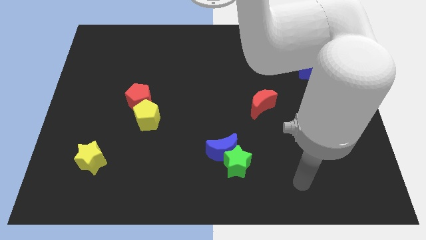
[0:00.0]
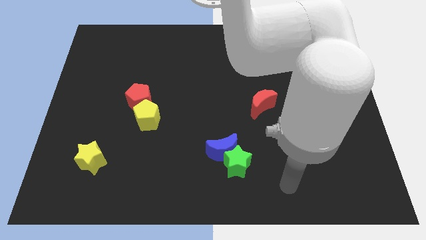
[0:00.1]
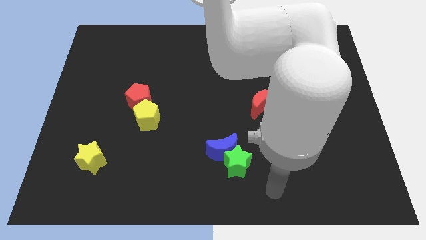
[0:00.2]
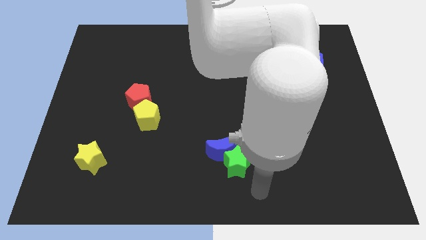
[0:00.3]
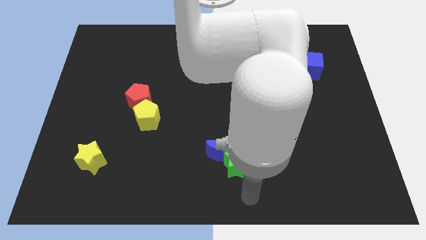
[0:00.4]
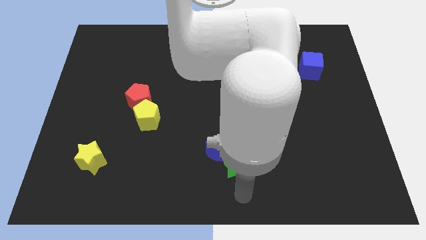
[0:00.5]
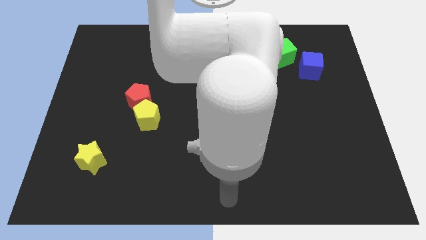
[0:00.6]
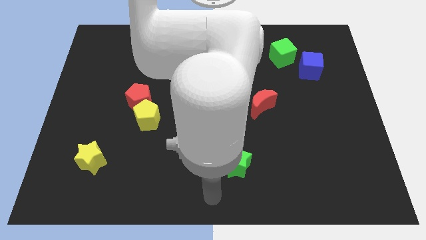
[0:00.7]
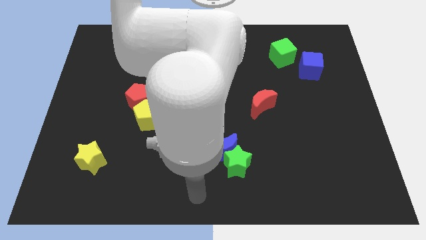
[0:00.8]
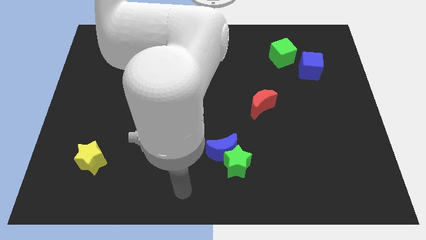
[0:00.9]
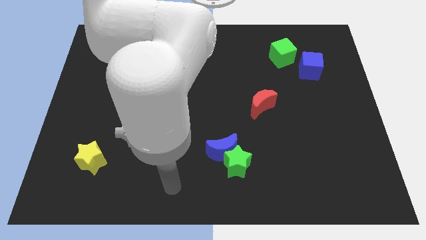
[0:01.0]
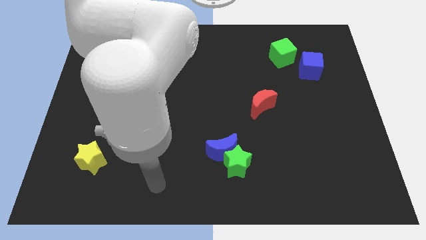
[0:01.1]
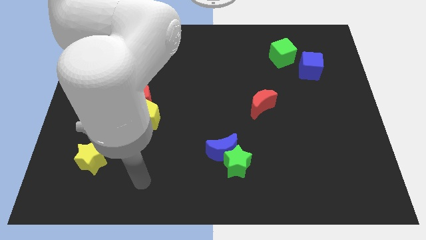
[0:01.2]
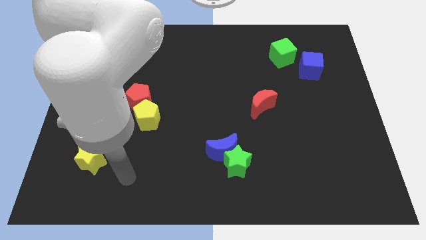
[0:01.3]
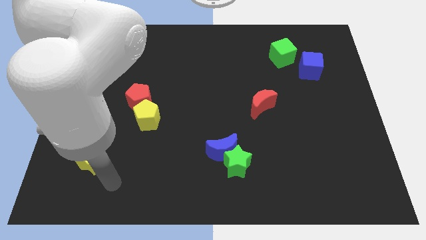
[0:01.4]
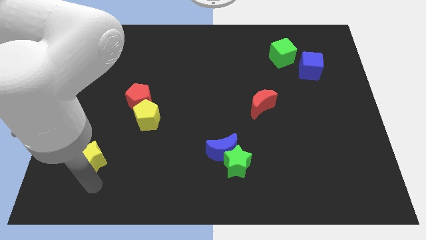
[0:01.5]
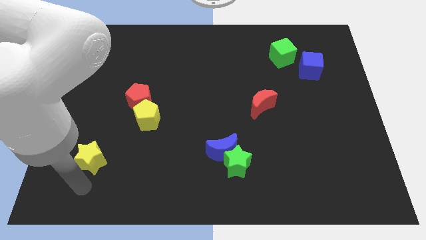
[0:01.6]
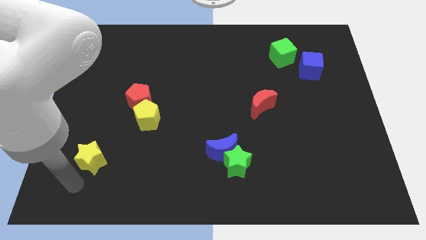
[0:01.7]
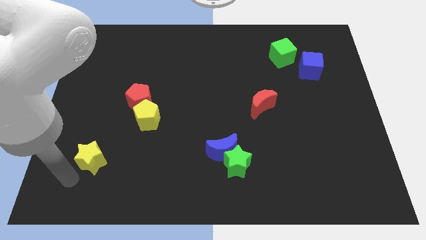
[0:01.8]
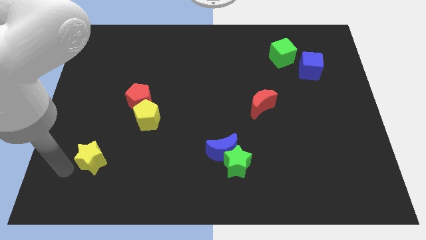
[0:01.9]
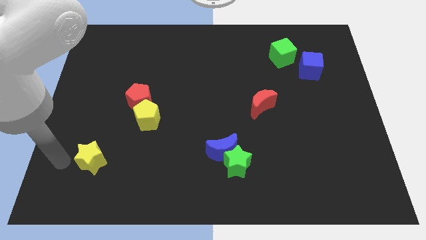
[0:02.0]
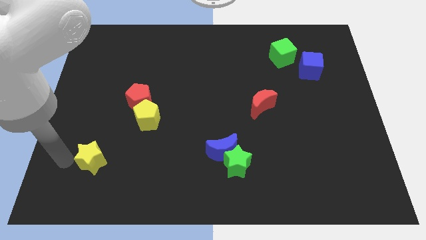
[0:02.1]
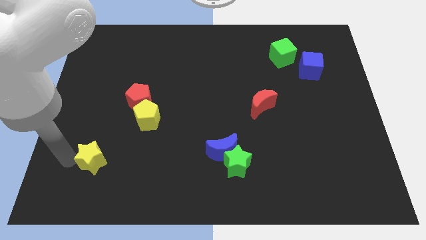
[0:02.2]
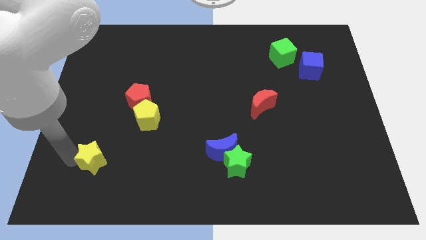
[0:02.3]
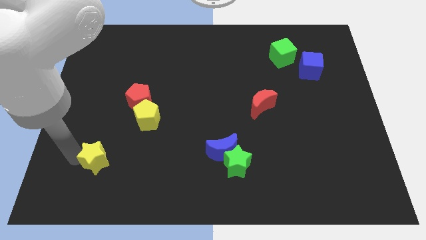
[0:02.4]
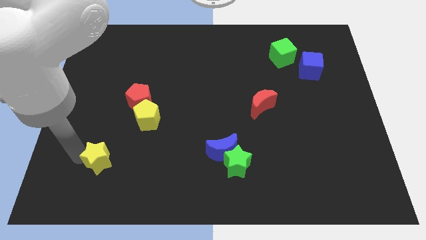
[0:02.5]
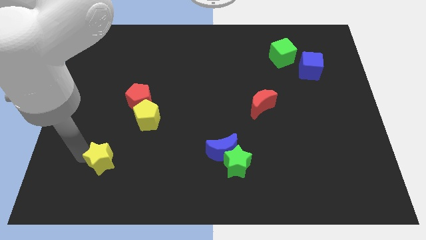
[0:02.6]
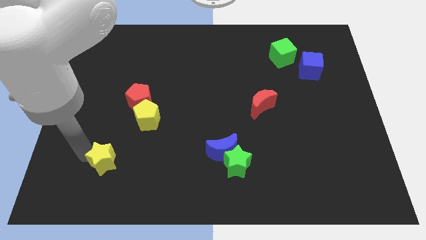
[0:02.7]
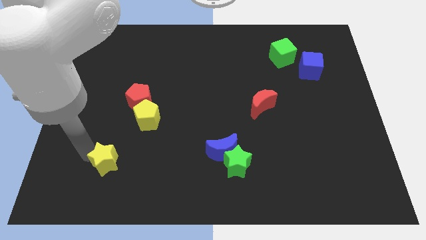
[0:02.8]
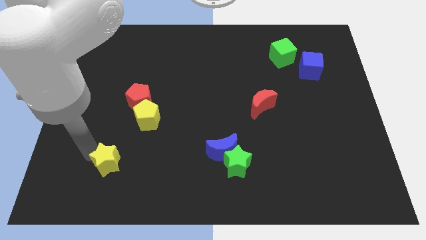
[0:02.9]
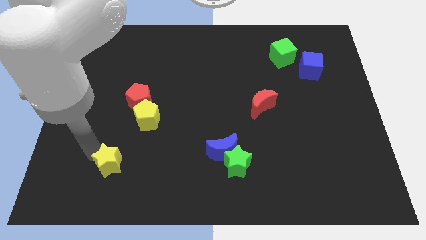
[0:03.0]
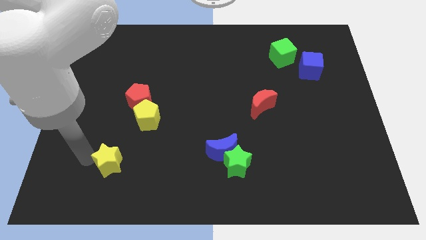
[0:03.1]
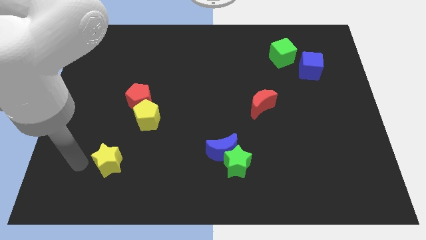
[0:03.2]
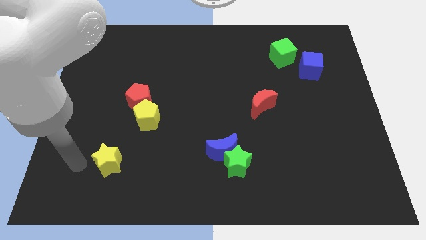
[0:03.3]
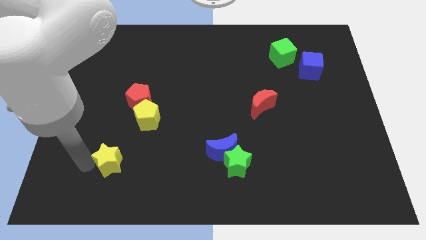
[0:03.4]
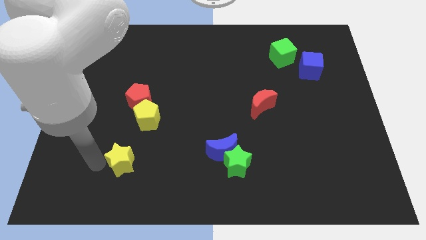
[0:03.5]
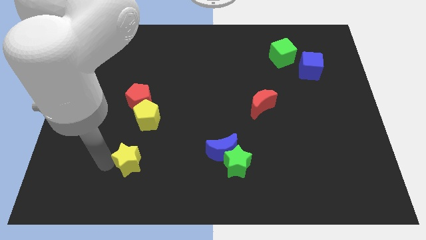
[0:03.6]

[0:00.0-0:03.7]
slightly push the yellow star to the right

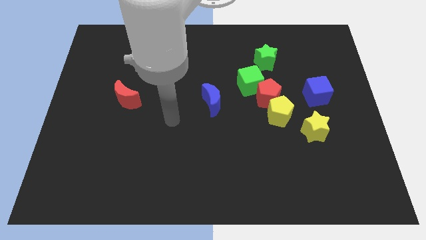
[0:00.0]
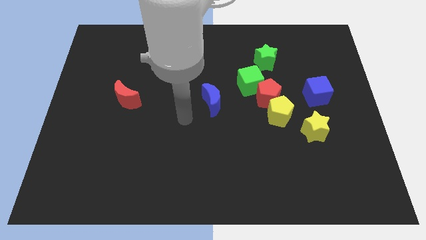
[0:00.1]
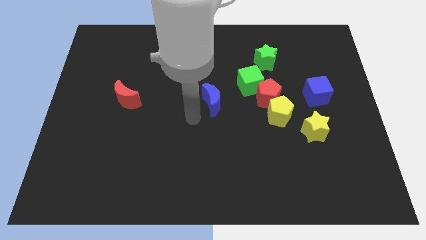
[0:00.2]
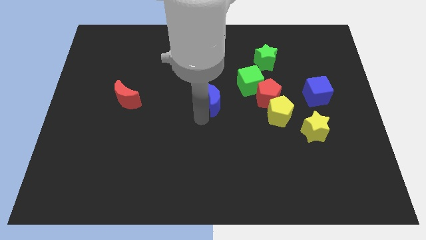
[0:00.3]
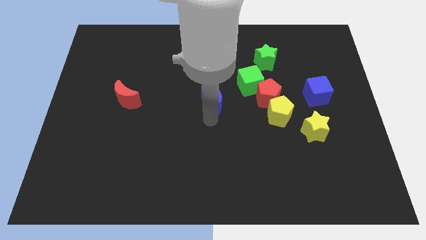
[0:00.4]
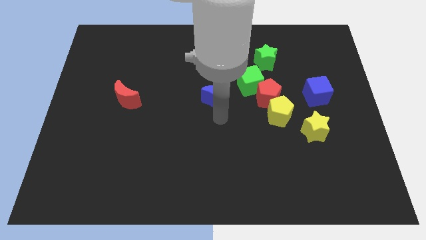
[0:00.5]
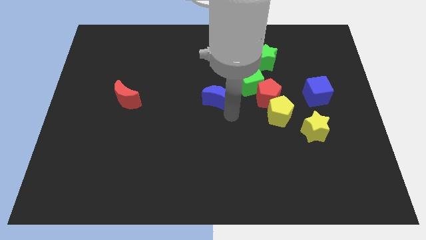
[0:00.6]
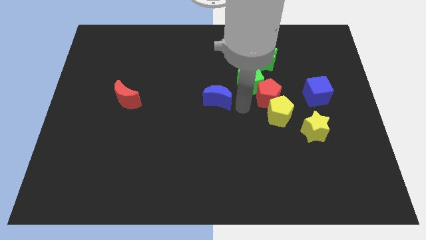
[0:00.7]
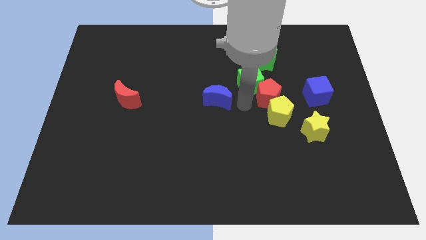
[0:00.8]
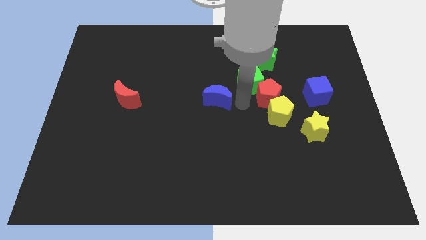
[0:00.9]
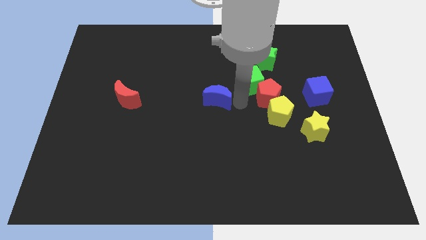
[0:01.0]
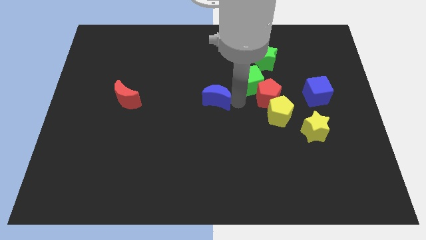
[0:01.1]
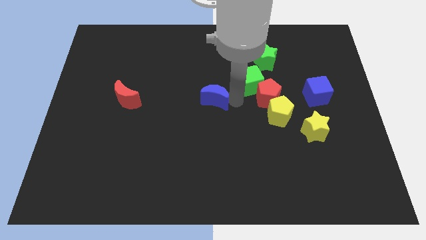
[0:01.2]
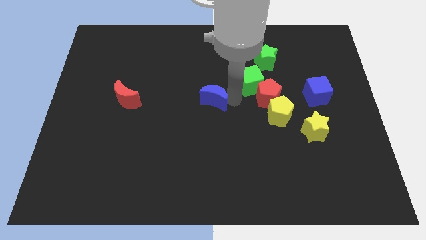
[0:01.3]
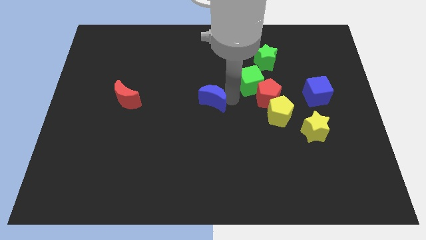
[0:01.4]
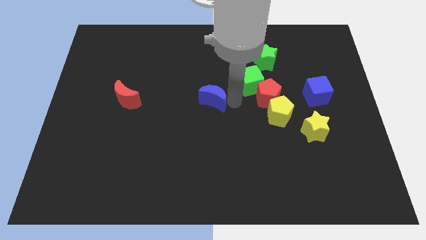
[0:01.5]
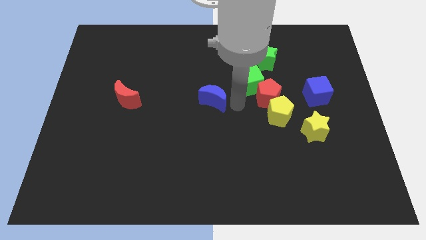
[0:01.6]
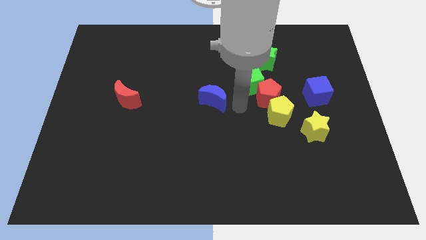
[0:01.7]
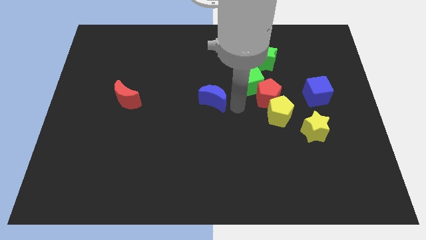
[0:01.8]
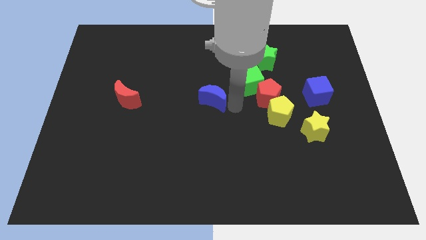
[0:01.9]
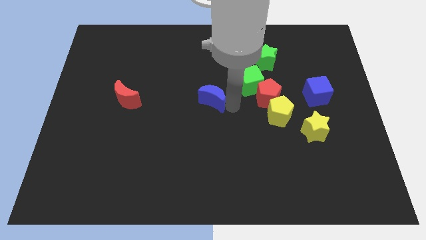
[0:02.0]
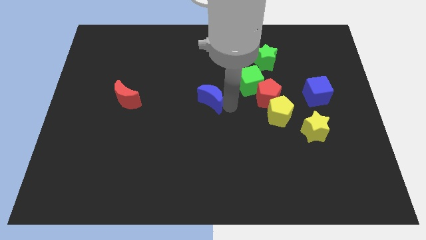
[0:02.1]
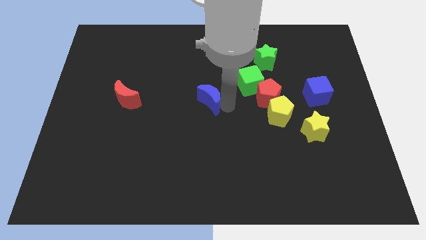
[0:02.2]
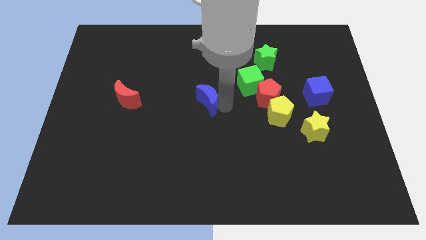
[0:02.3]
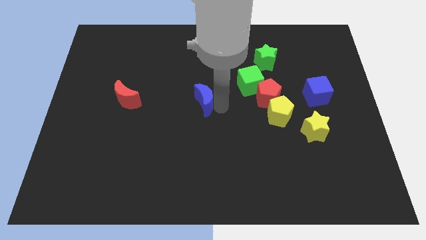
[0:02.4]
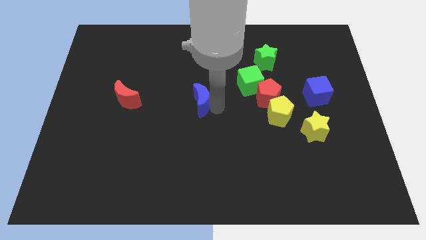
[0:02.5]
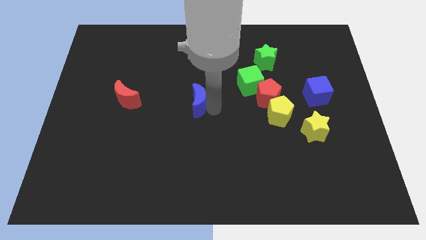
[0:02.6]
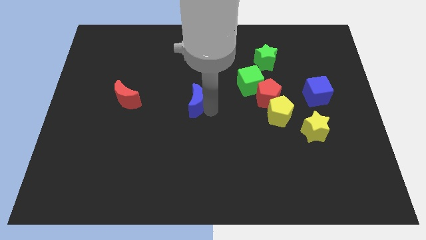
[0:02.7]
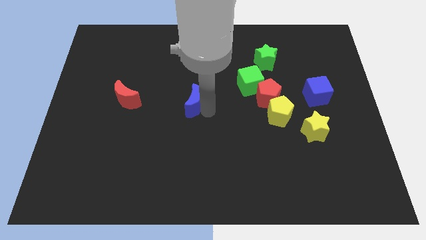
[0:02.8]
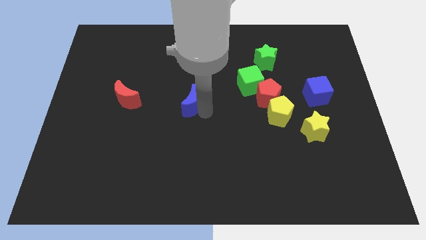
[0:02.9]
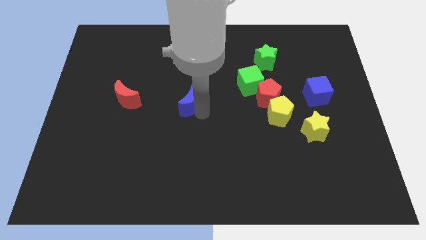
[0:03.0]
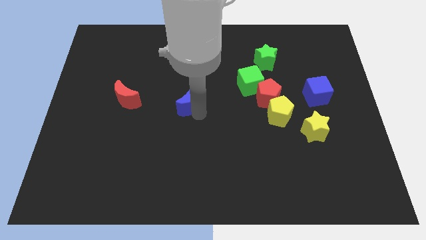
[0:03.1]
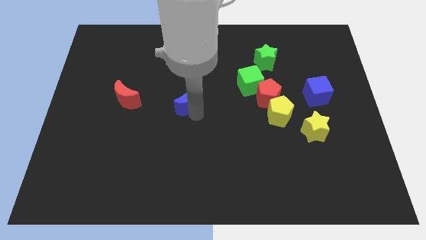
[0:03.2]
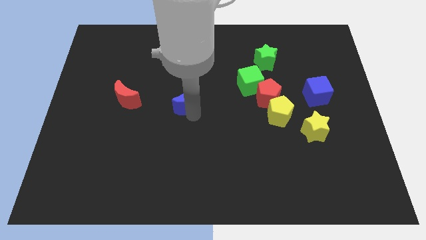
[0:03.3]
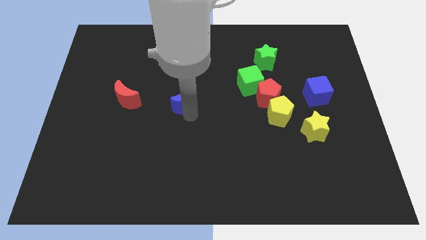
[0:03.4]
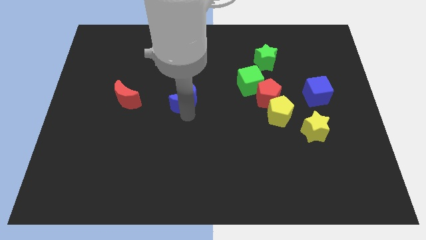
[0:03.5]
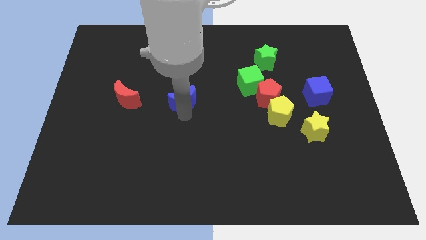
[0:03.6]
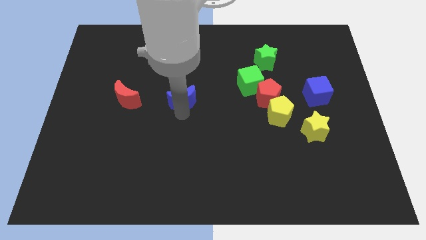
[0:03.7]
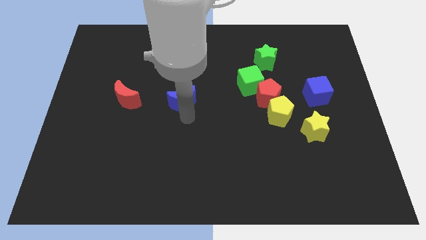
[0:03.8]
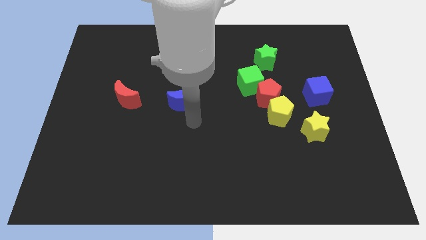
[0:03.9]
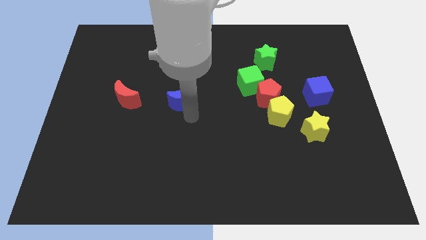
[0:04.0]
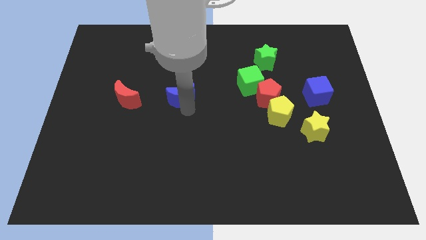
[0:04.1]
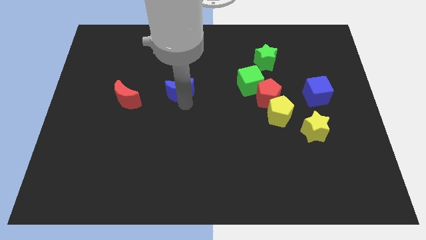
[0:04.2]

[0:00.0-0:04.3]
slightly push the blue moon upwards and left

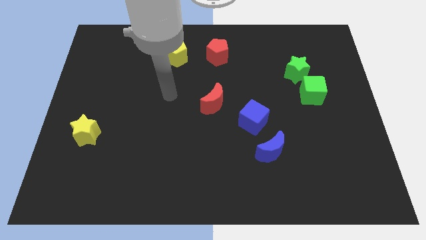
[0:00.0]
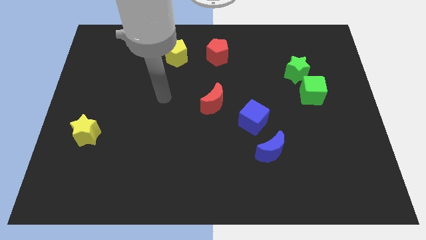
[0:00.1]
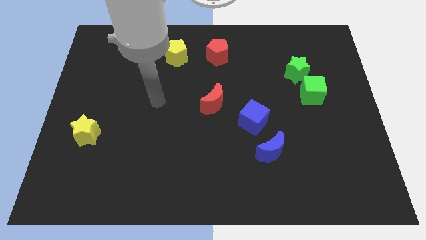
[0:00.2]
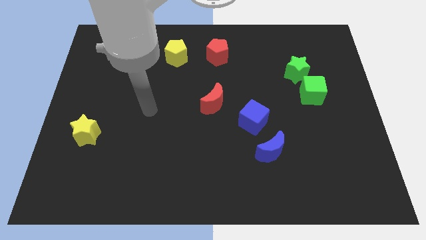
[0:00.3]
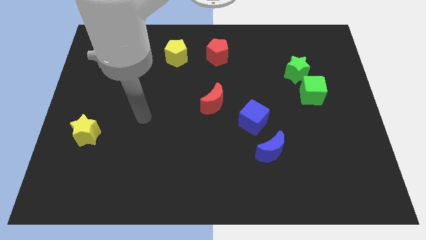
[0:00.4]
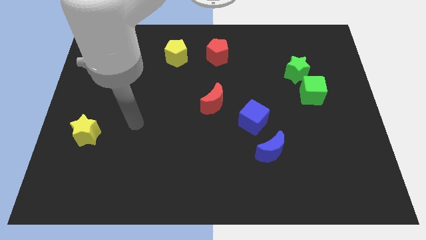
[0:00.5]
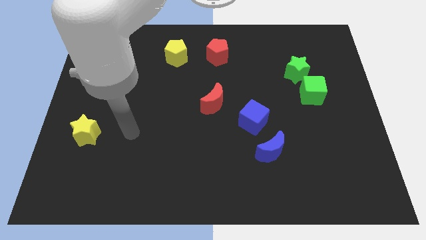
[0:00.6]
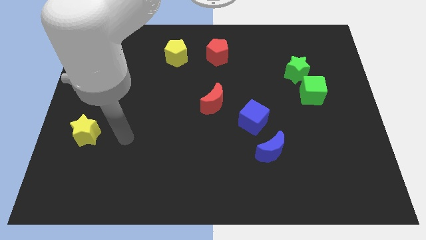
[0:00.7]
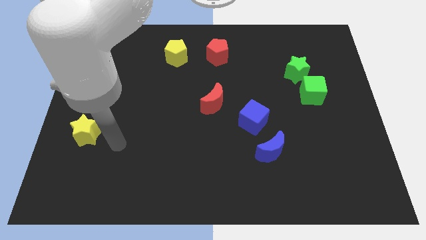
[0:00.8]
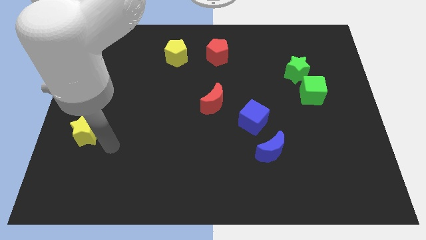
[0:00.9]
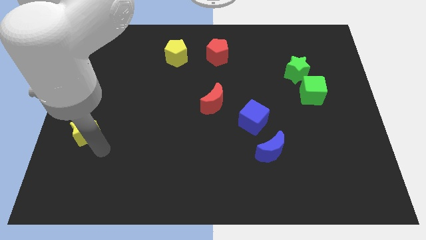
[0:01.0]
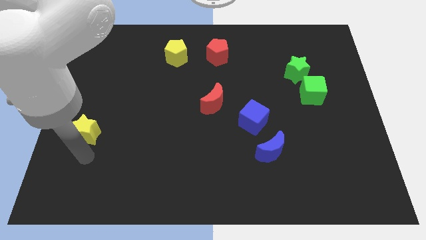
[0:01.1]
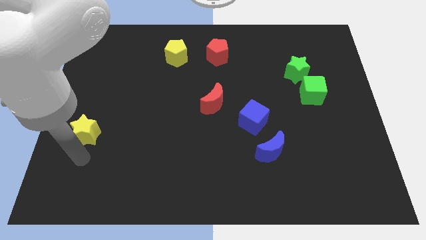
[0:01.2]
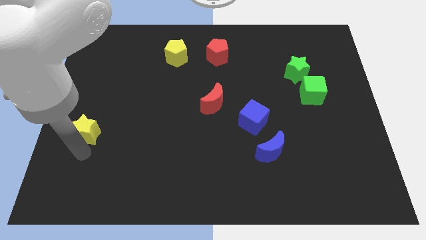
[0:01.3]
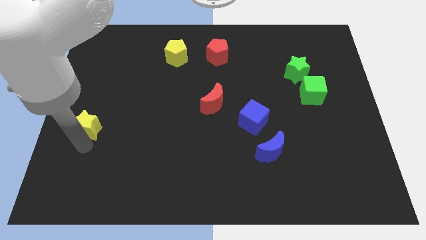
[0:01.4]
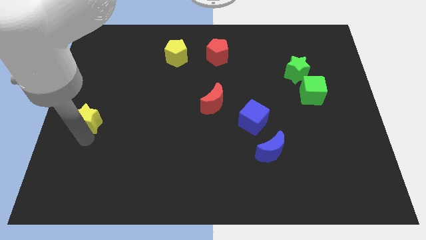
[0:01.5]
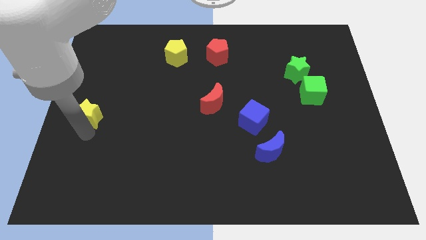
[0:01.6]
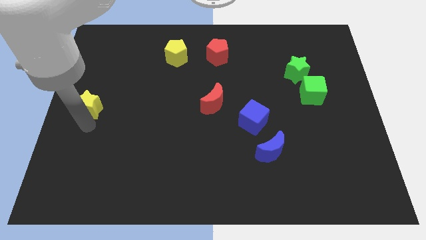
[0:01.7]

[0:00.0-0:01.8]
push the yellow star a little bit up
